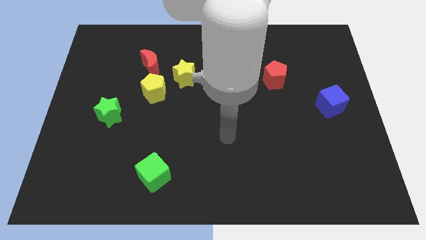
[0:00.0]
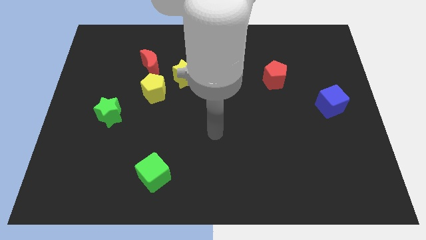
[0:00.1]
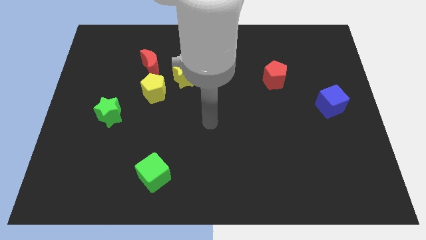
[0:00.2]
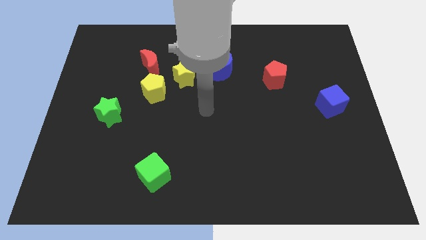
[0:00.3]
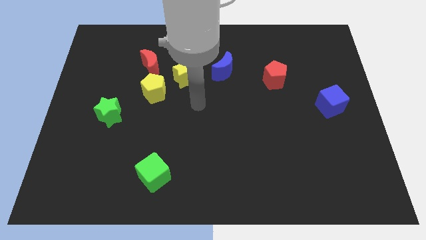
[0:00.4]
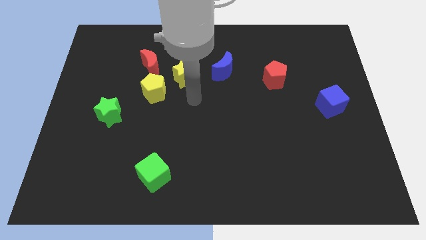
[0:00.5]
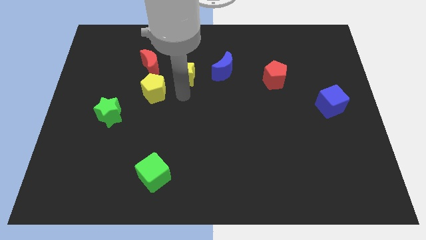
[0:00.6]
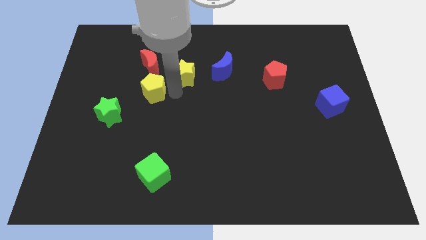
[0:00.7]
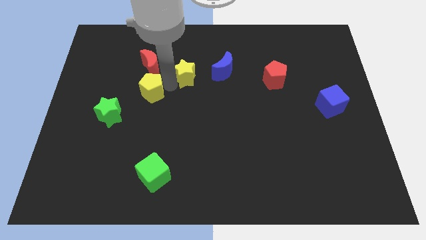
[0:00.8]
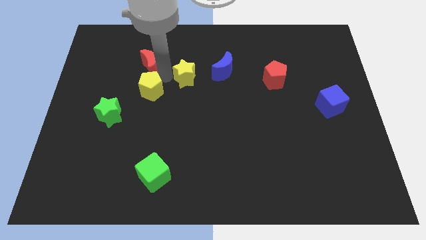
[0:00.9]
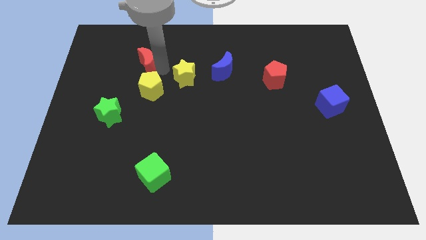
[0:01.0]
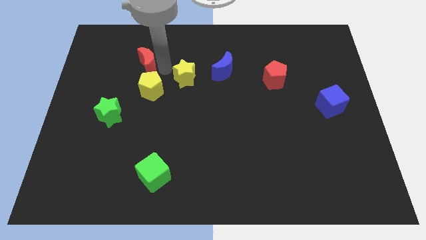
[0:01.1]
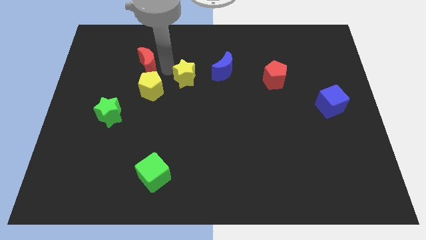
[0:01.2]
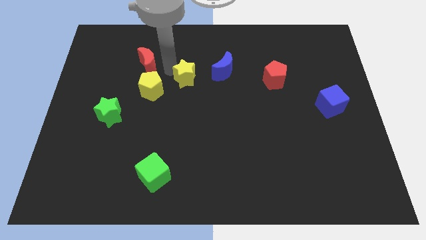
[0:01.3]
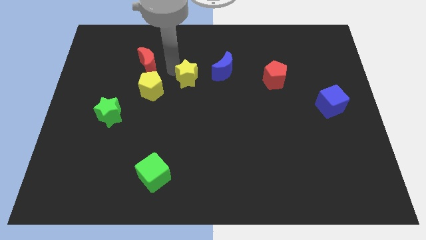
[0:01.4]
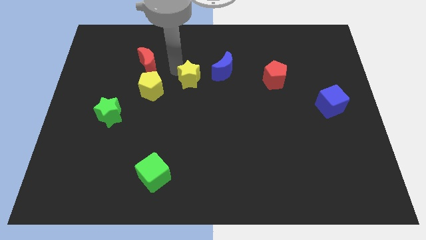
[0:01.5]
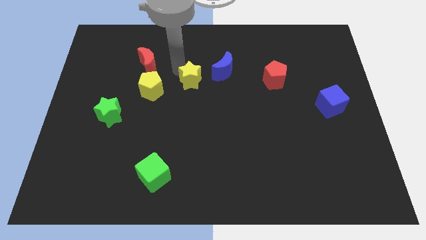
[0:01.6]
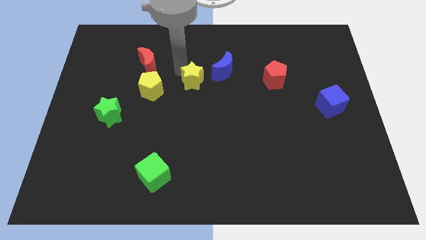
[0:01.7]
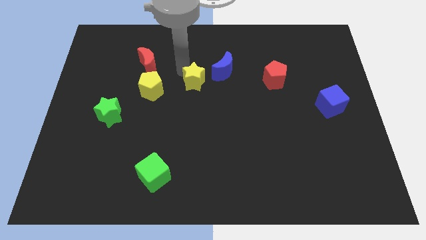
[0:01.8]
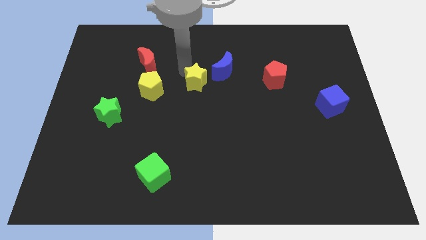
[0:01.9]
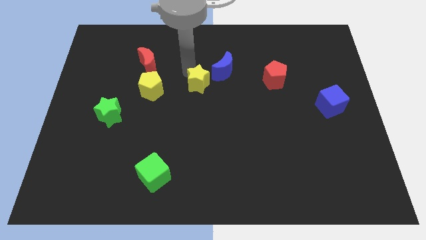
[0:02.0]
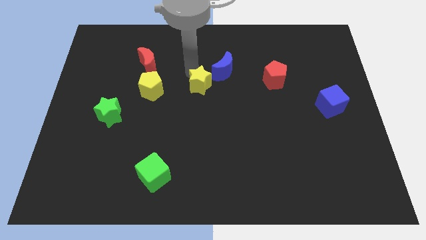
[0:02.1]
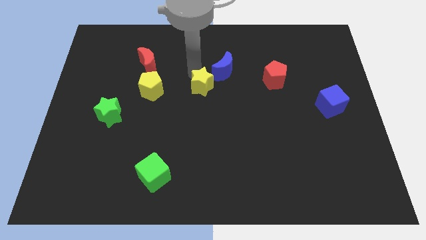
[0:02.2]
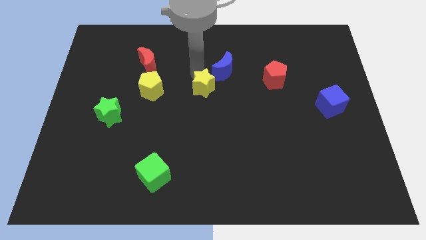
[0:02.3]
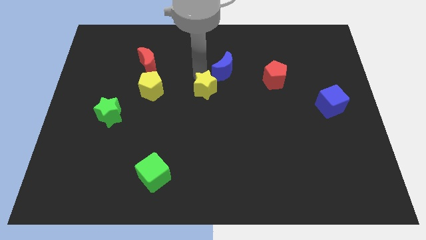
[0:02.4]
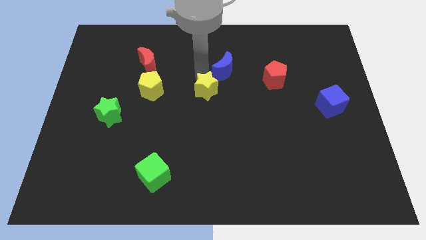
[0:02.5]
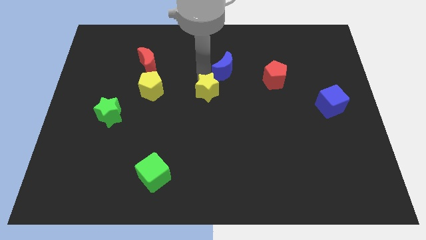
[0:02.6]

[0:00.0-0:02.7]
slightly push the yellow star diagonally downwards and to the right

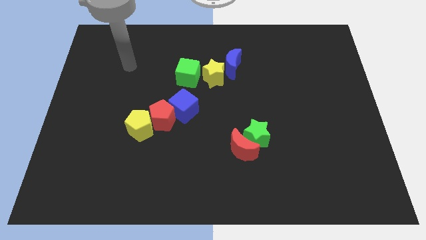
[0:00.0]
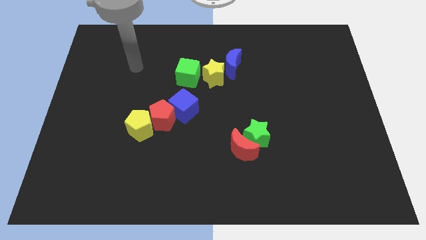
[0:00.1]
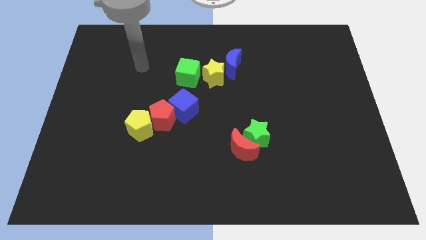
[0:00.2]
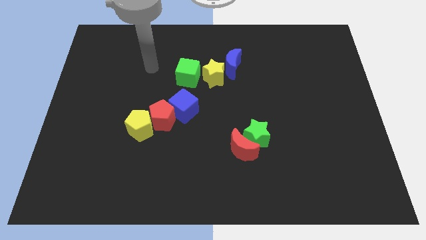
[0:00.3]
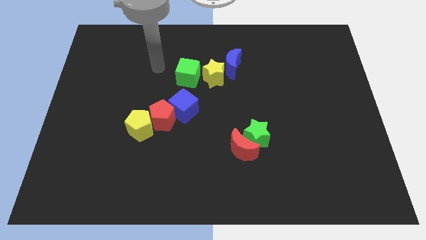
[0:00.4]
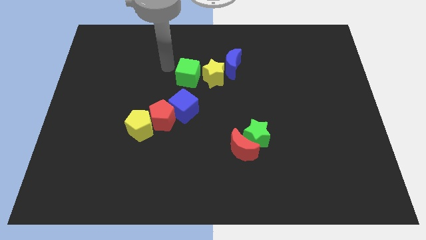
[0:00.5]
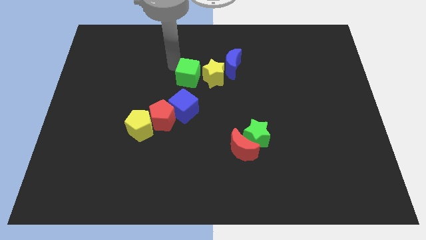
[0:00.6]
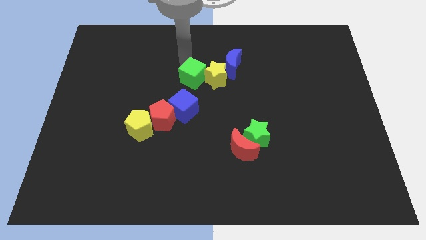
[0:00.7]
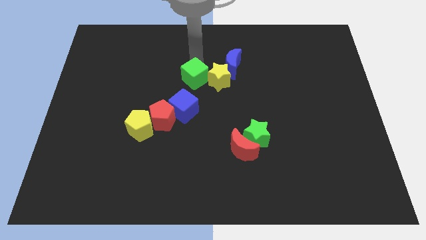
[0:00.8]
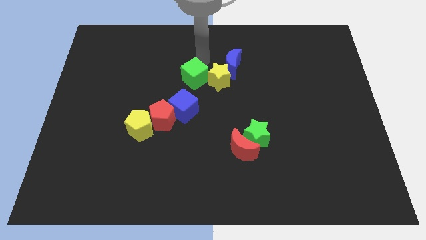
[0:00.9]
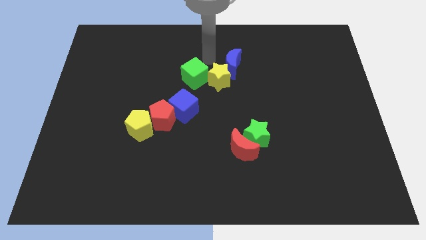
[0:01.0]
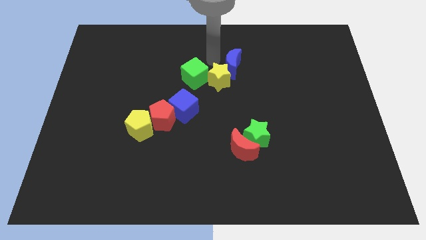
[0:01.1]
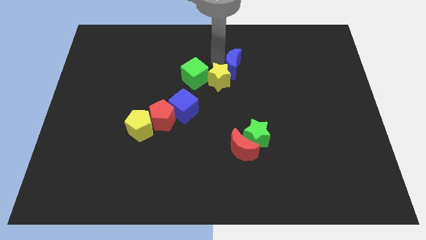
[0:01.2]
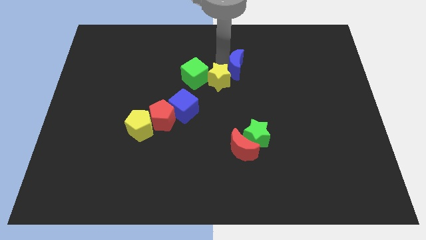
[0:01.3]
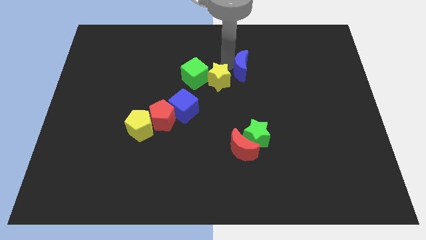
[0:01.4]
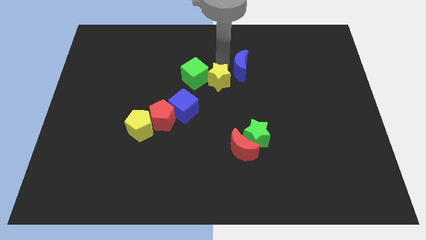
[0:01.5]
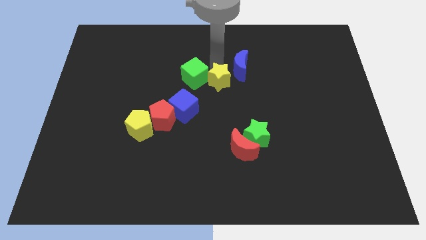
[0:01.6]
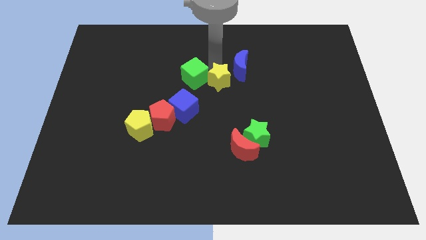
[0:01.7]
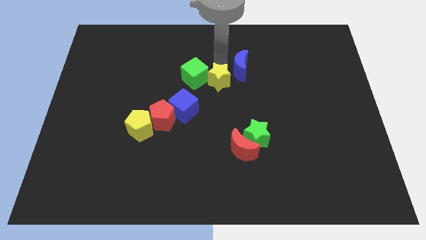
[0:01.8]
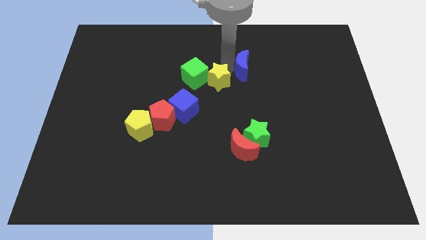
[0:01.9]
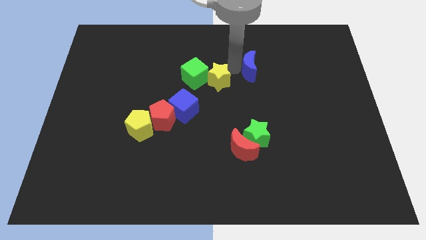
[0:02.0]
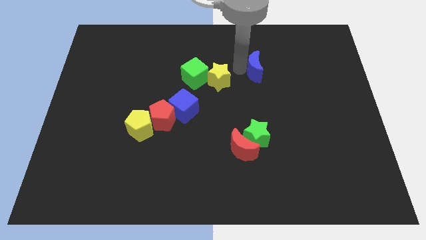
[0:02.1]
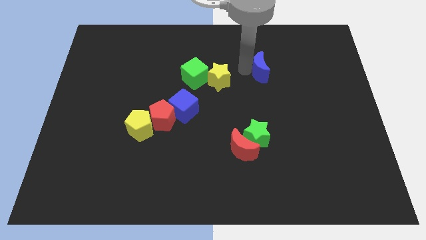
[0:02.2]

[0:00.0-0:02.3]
slide the blue moon right a little bit

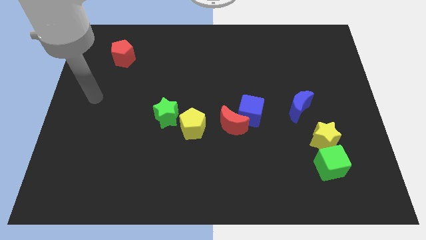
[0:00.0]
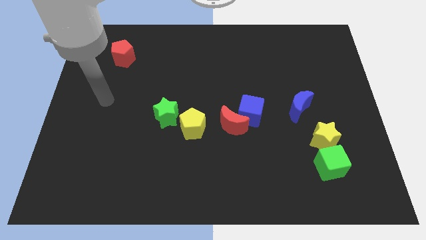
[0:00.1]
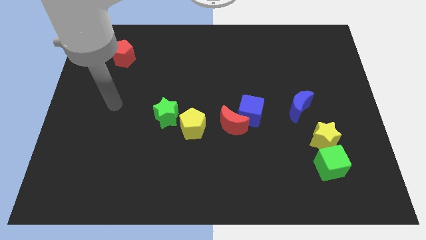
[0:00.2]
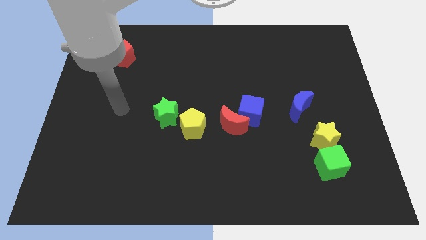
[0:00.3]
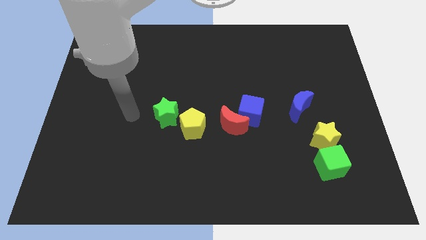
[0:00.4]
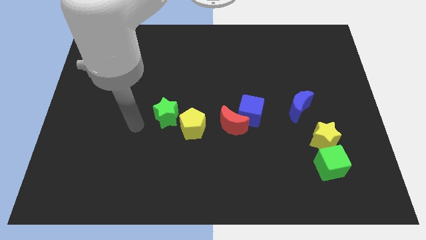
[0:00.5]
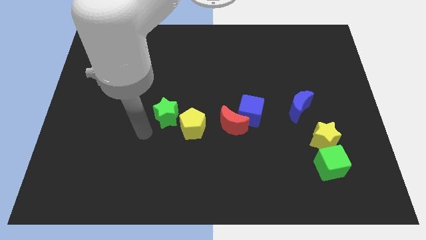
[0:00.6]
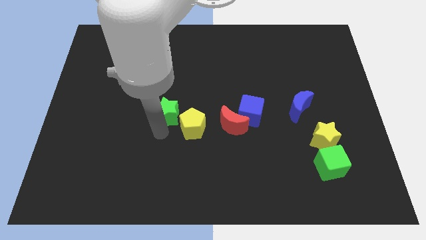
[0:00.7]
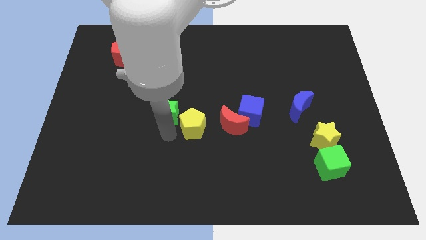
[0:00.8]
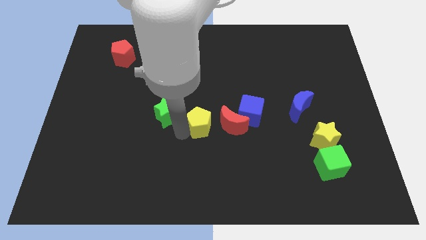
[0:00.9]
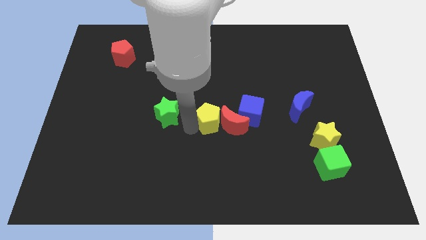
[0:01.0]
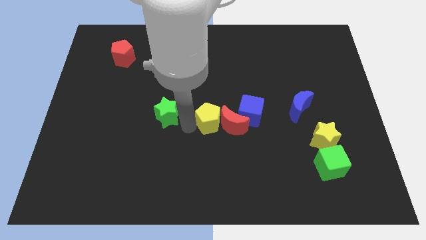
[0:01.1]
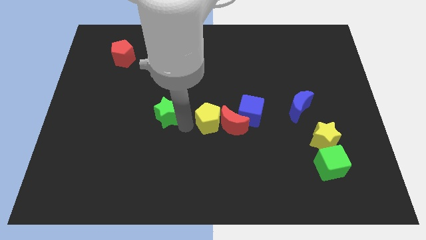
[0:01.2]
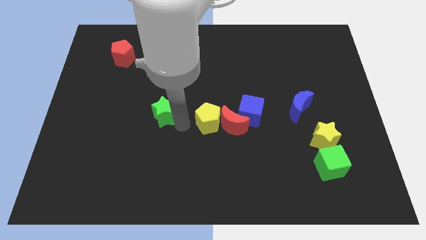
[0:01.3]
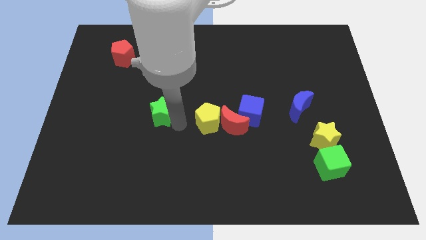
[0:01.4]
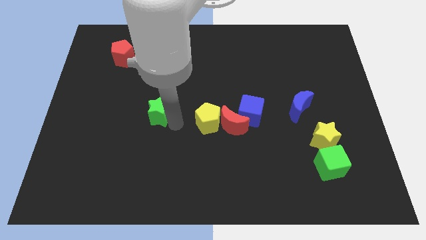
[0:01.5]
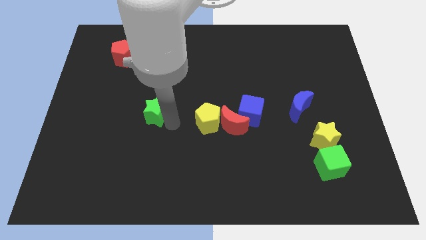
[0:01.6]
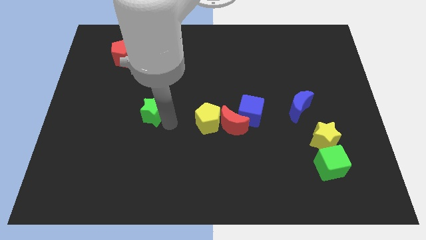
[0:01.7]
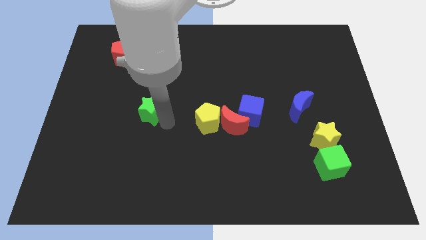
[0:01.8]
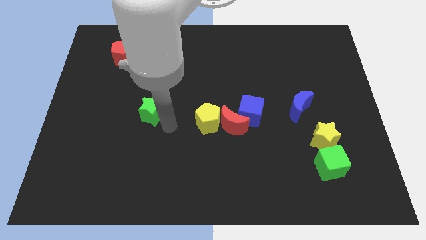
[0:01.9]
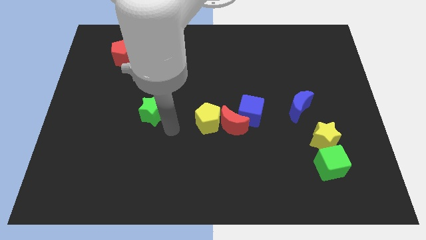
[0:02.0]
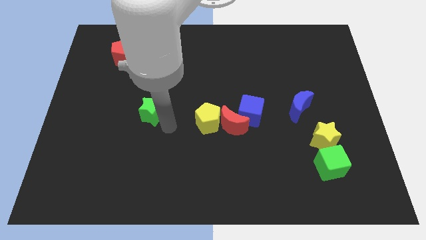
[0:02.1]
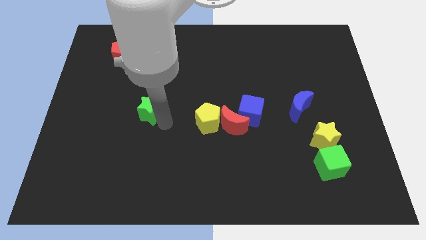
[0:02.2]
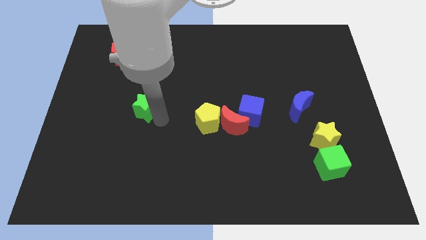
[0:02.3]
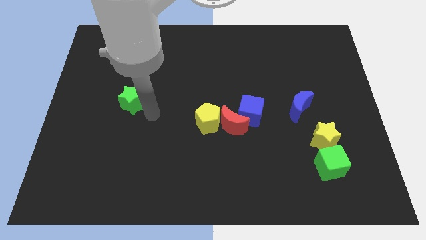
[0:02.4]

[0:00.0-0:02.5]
slide the green star up and to the left a little bit

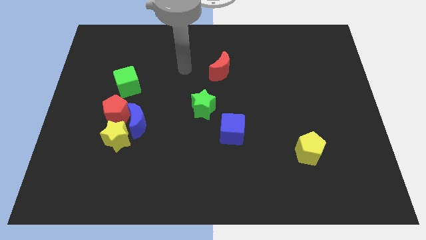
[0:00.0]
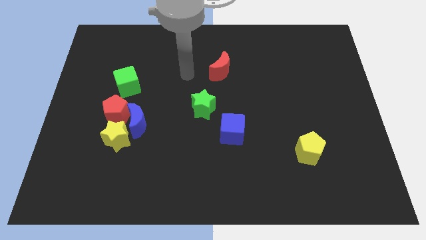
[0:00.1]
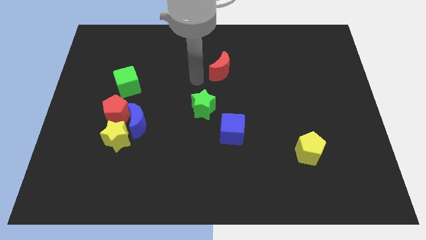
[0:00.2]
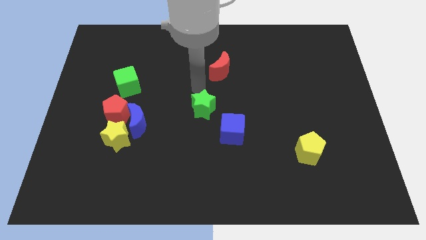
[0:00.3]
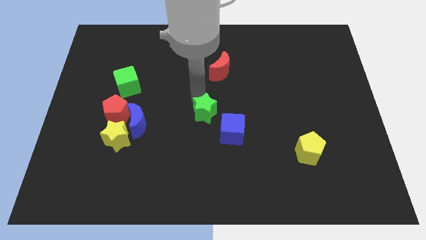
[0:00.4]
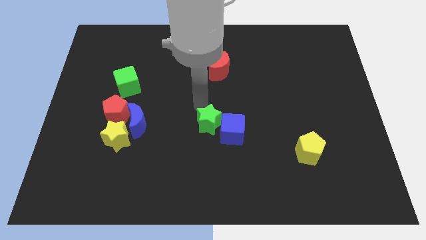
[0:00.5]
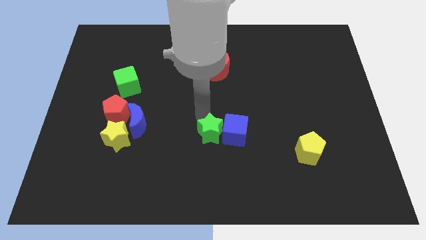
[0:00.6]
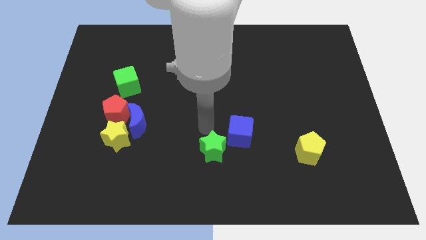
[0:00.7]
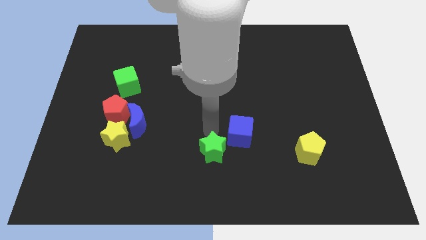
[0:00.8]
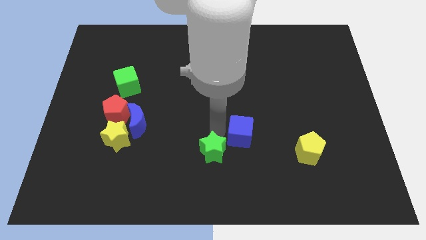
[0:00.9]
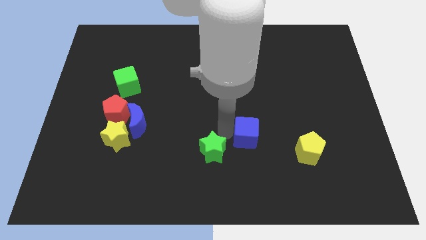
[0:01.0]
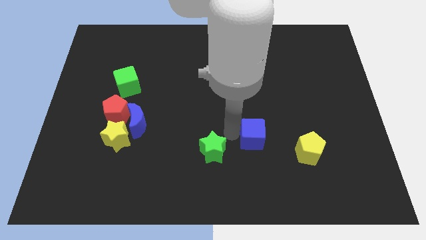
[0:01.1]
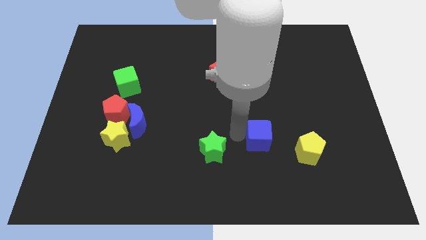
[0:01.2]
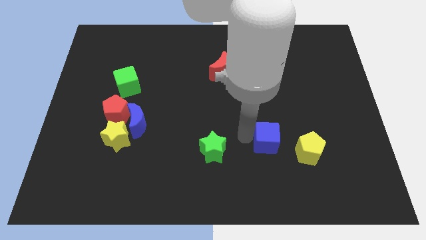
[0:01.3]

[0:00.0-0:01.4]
push the blue cube to the right a bit
